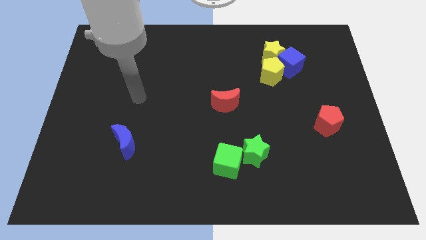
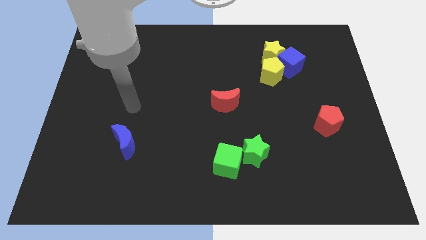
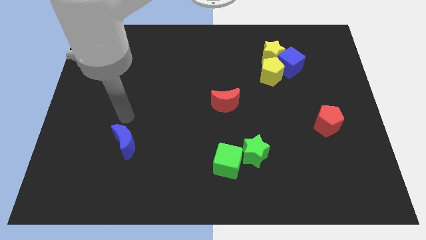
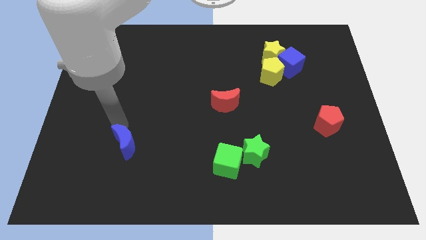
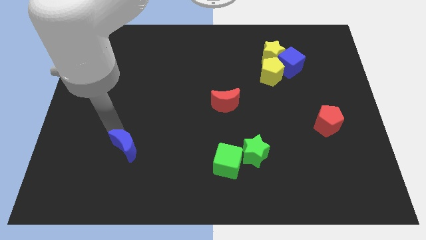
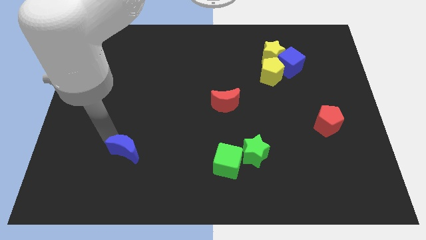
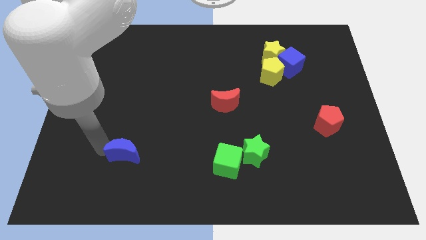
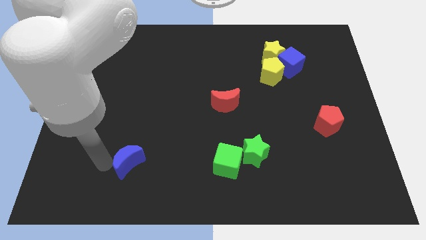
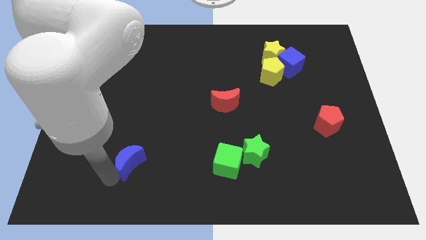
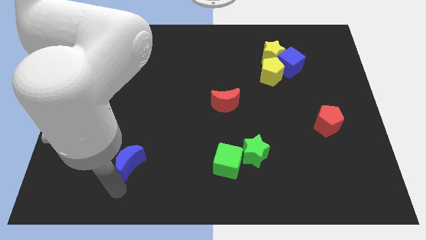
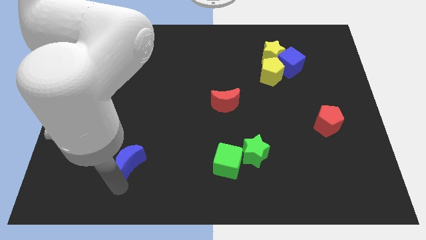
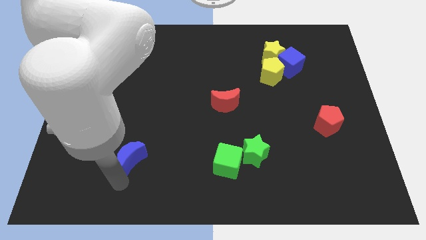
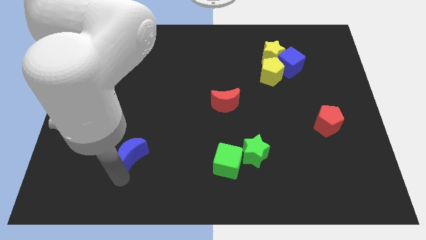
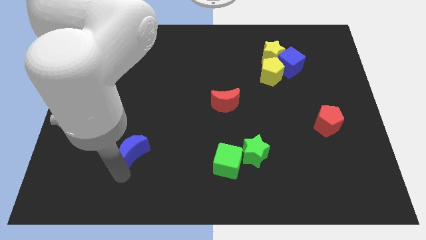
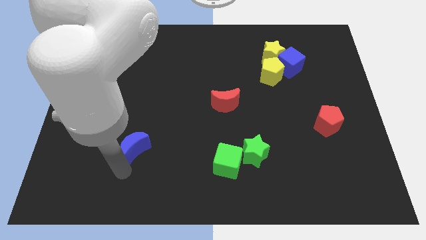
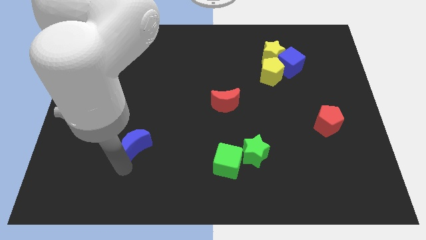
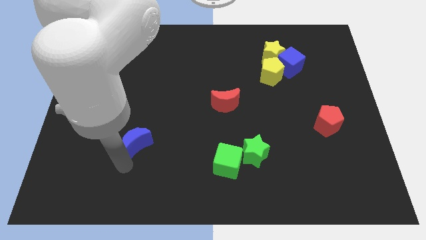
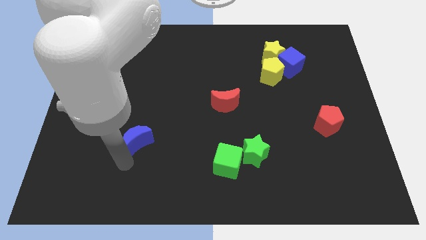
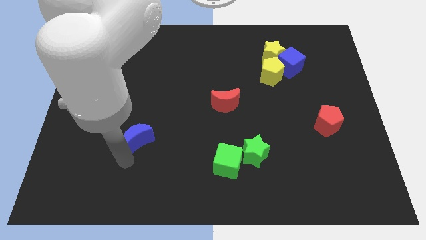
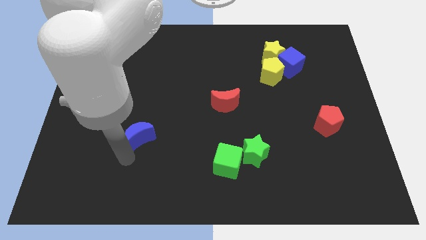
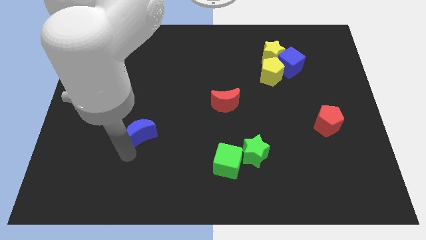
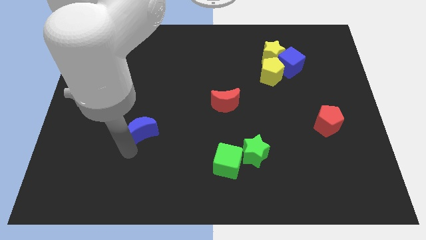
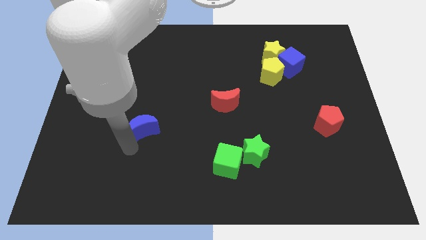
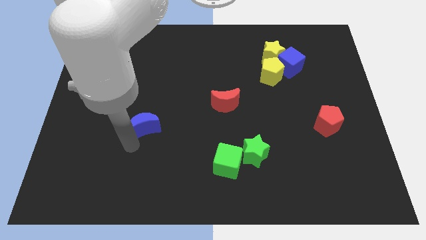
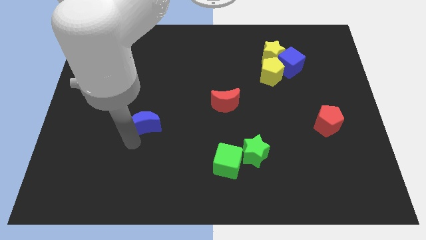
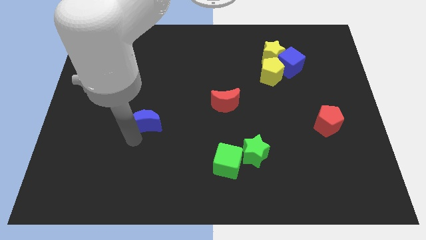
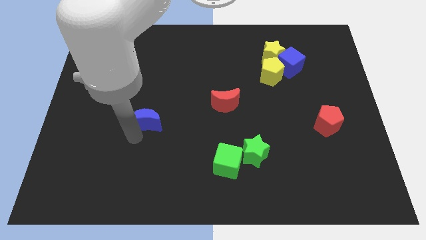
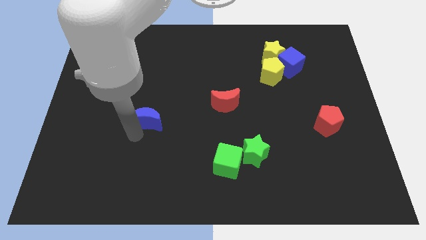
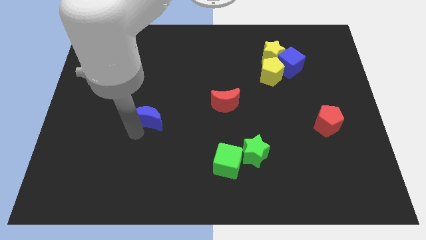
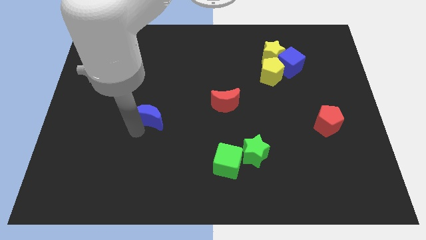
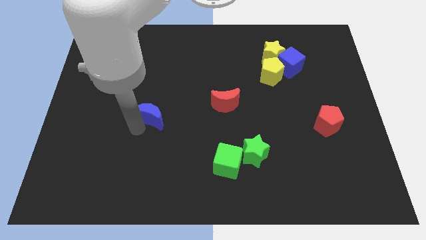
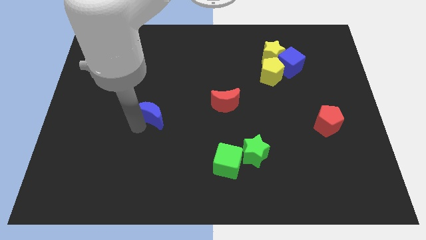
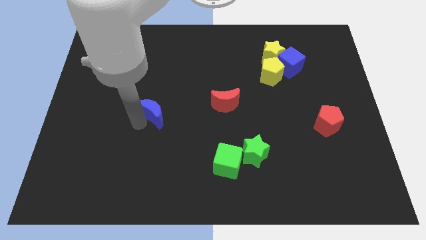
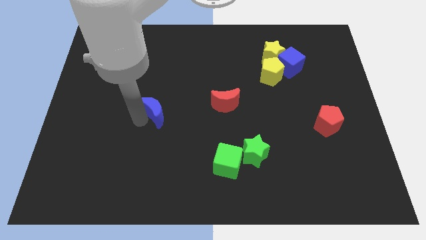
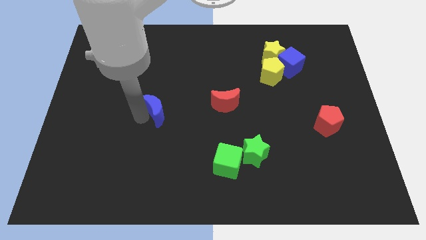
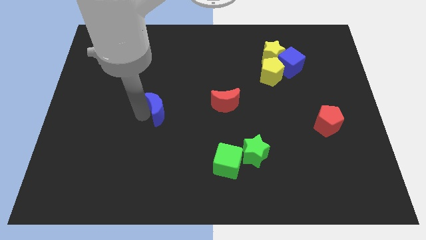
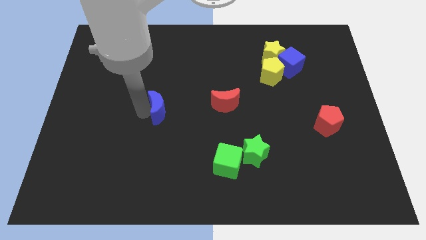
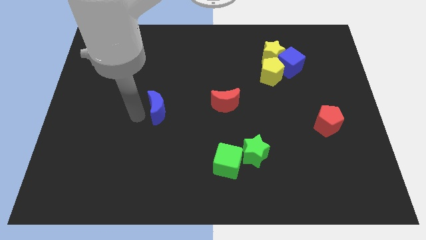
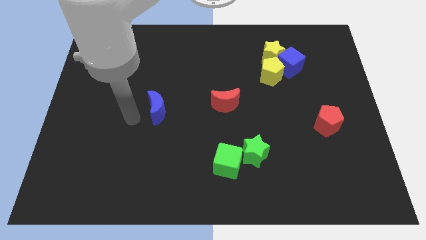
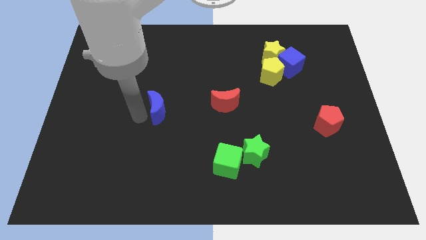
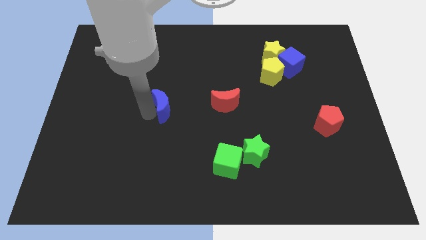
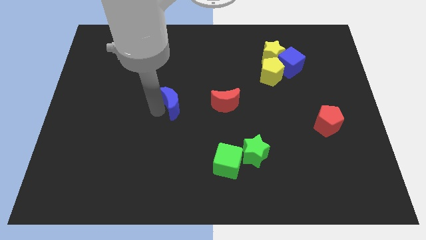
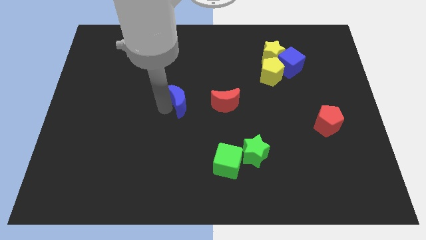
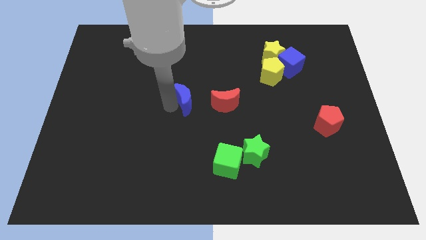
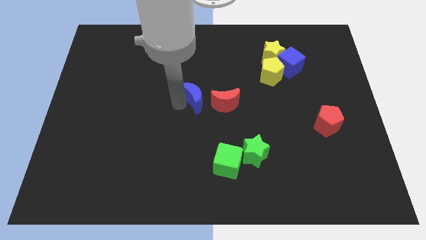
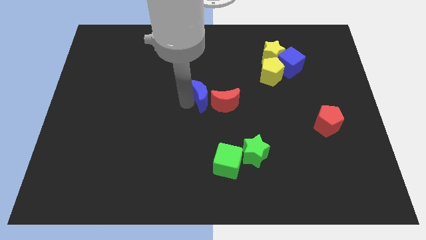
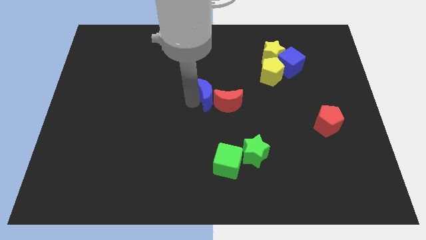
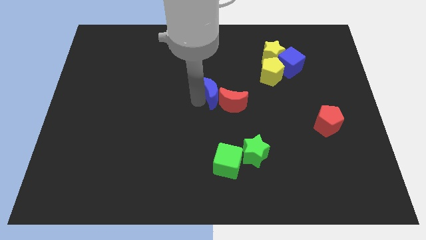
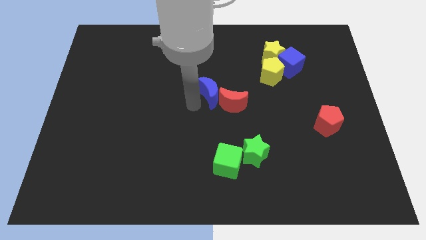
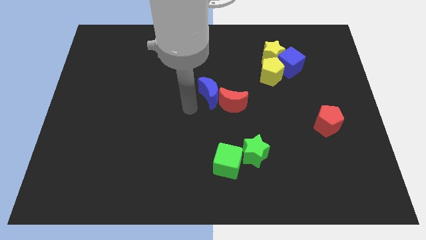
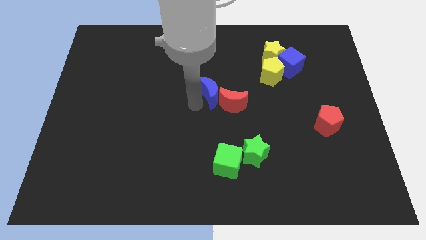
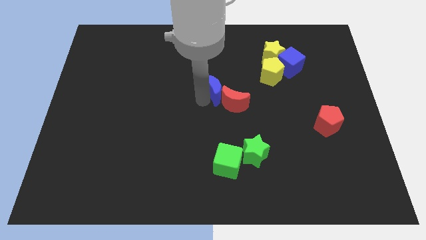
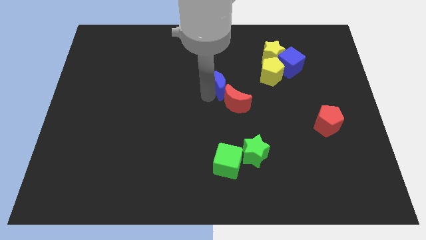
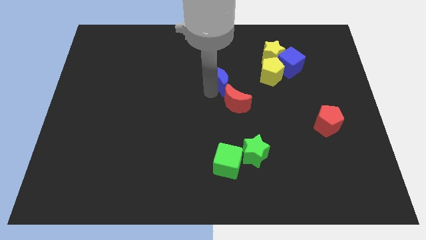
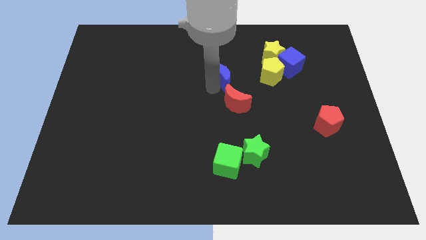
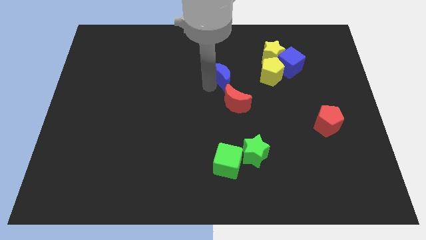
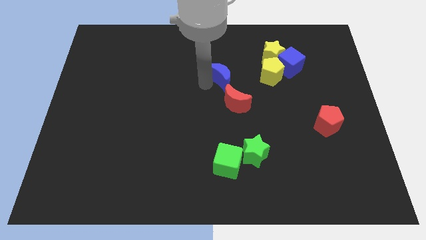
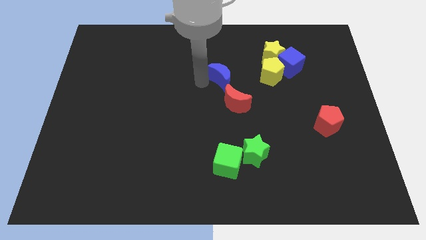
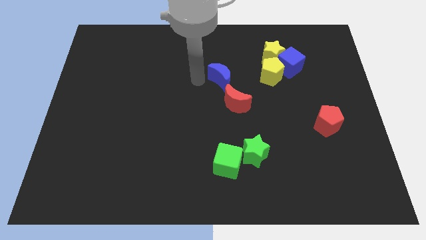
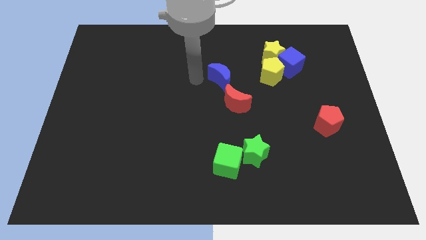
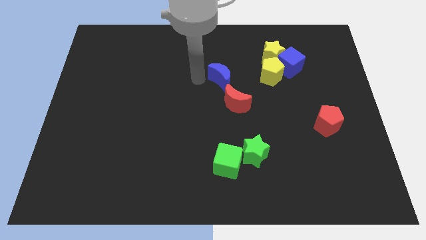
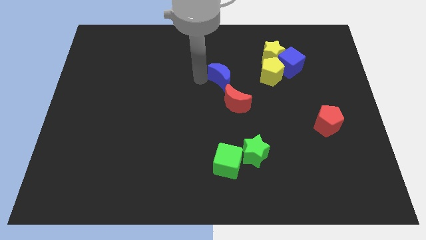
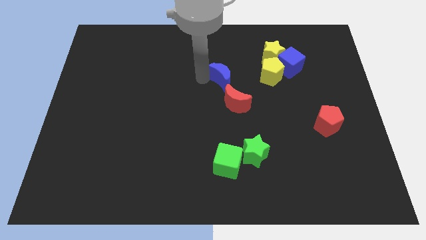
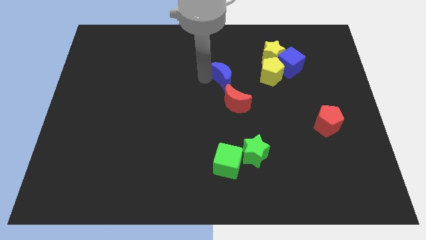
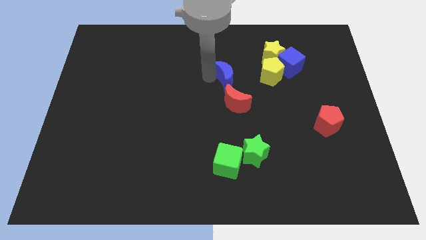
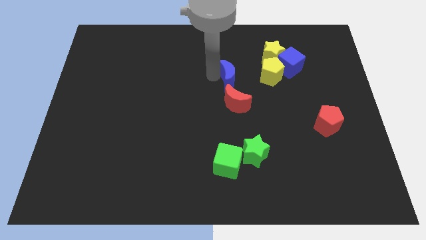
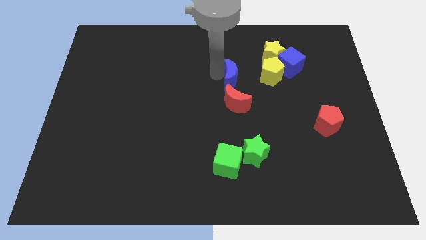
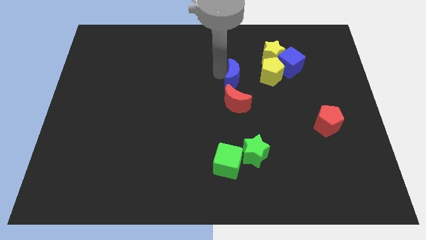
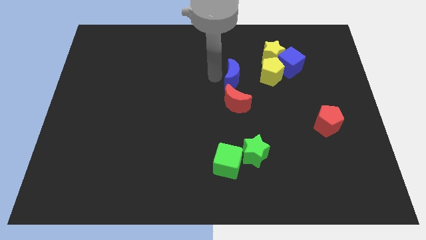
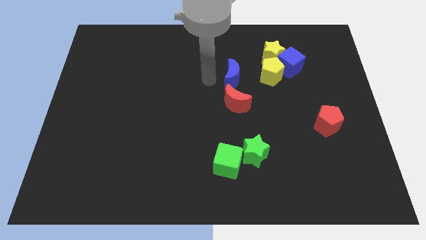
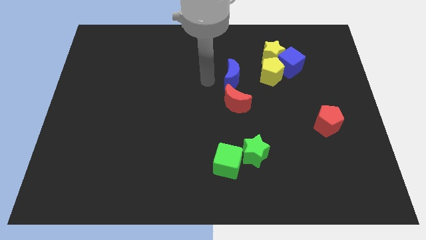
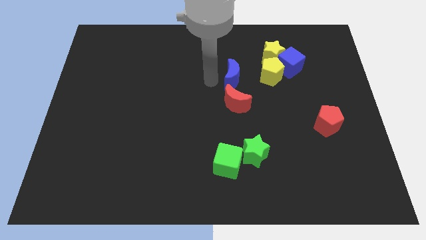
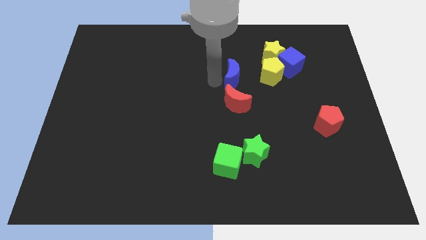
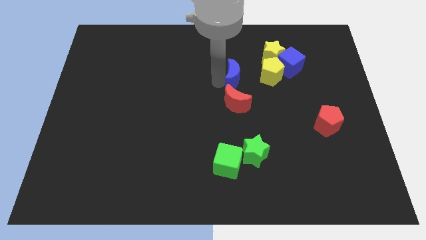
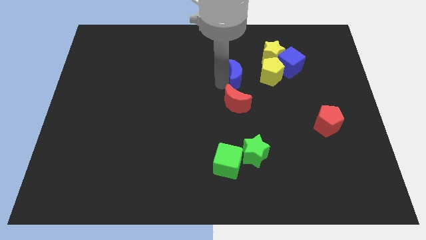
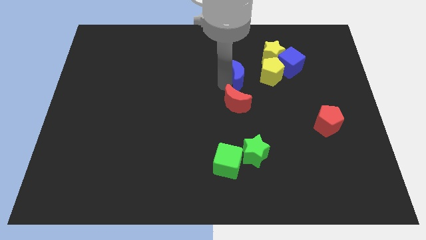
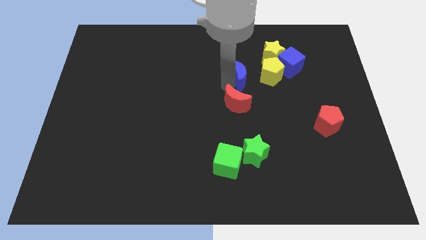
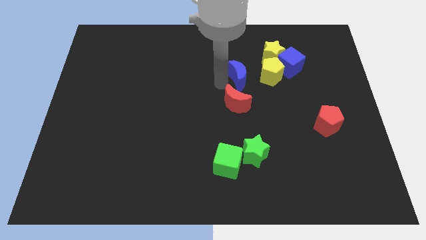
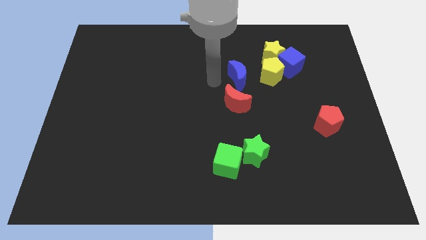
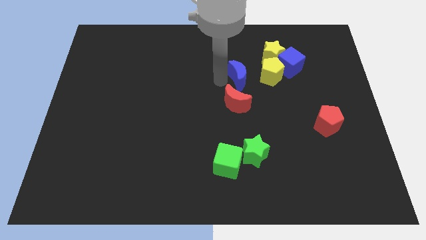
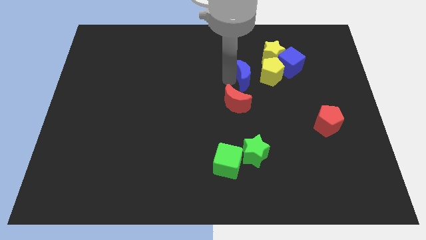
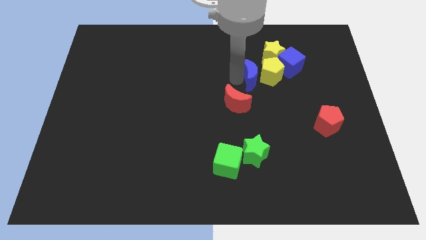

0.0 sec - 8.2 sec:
push the blue moon to the yellow pentagon
